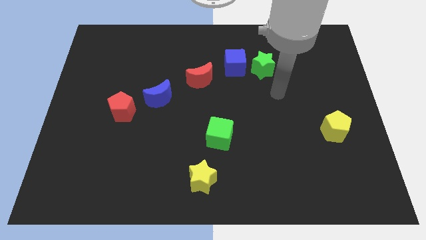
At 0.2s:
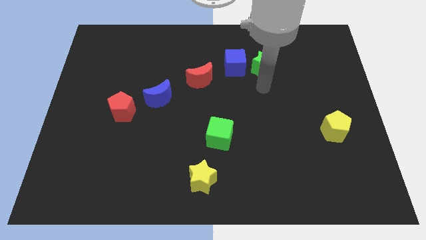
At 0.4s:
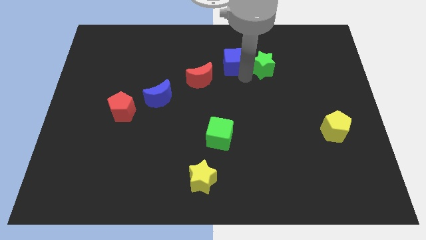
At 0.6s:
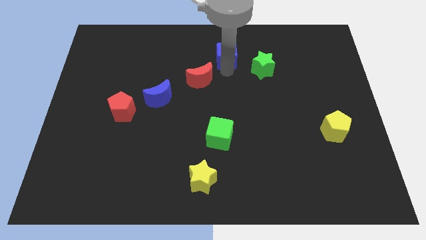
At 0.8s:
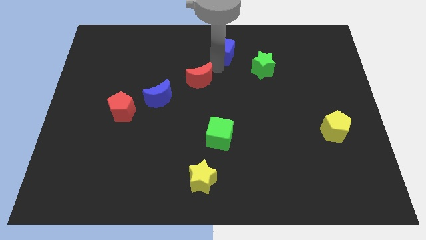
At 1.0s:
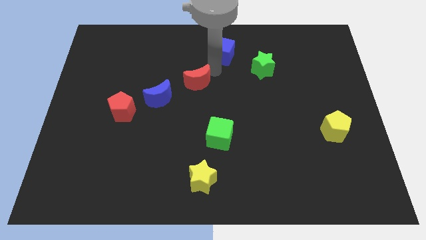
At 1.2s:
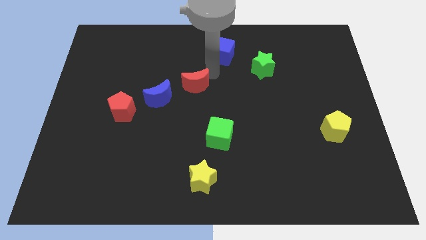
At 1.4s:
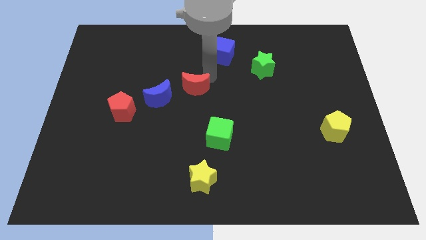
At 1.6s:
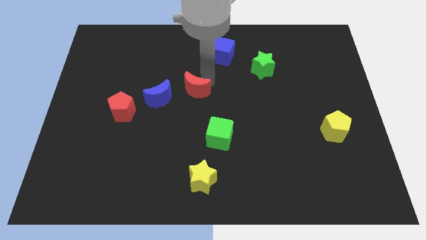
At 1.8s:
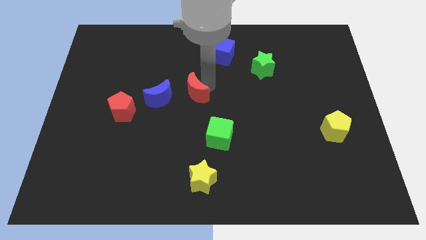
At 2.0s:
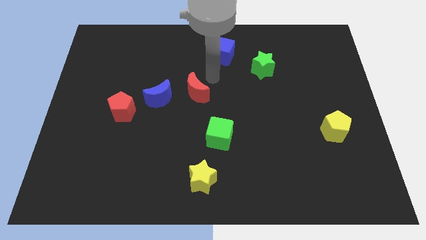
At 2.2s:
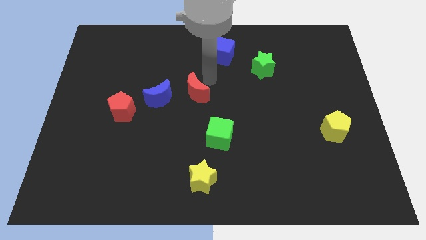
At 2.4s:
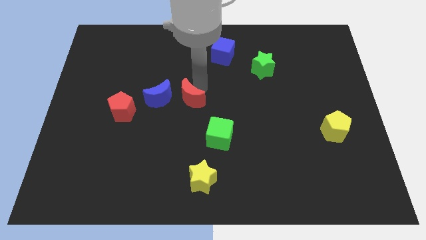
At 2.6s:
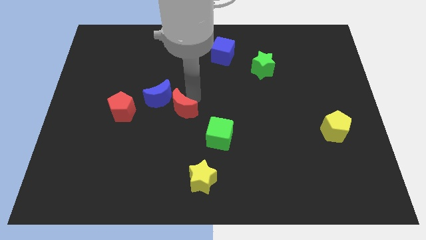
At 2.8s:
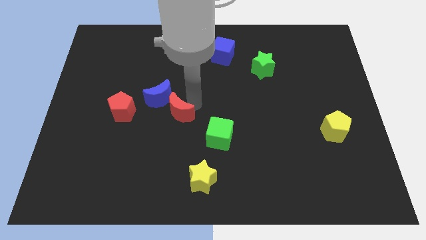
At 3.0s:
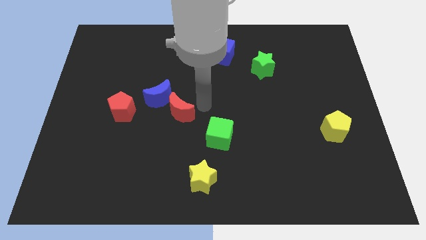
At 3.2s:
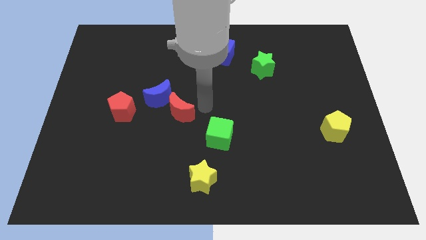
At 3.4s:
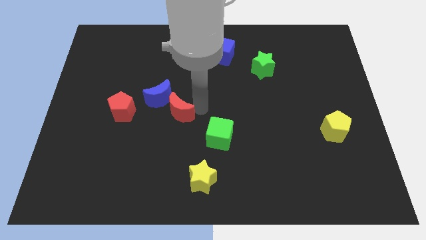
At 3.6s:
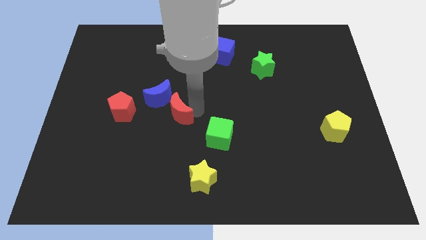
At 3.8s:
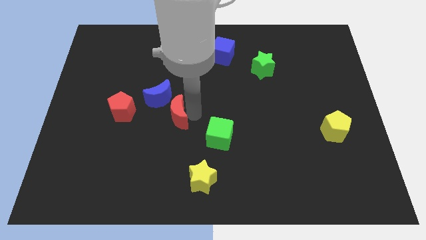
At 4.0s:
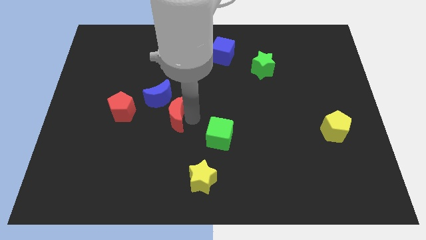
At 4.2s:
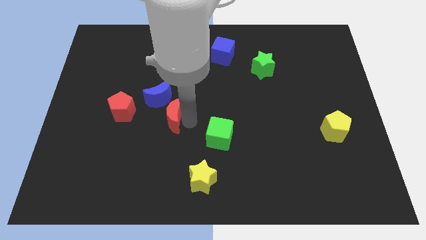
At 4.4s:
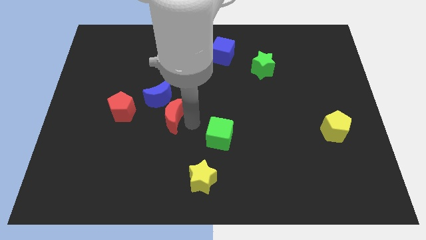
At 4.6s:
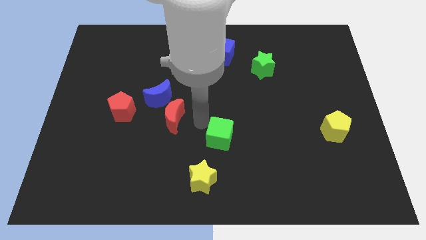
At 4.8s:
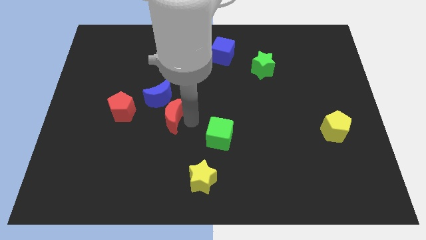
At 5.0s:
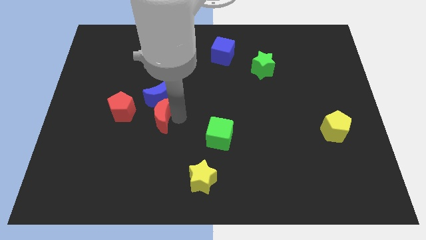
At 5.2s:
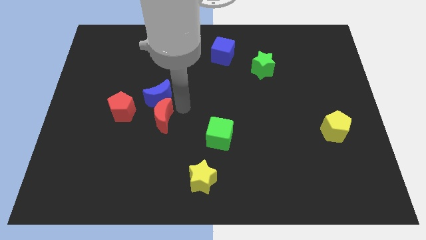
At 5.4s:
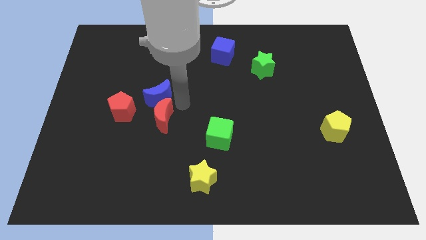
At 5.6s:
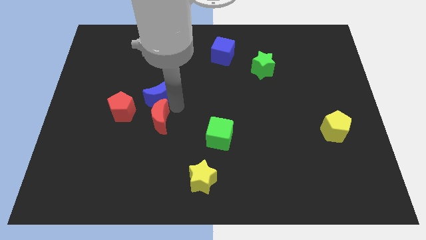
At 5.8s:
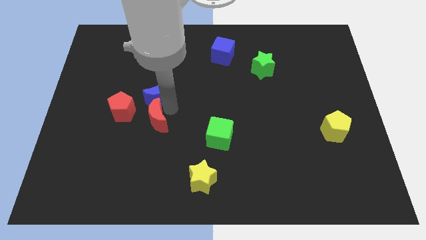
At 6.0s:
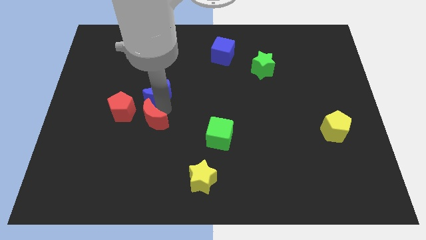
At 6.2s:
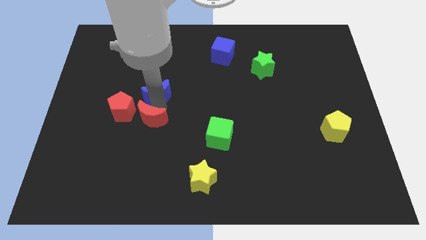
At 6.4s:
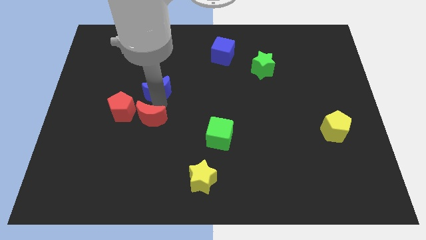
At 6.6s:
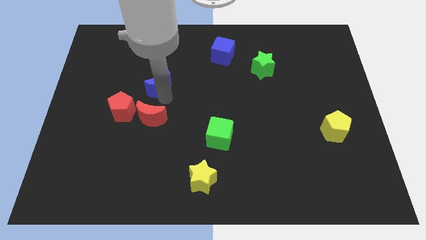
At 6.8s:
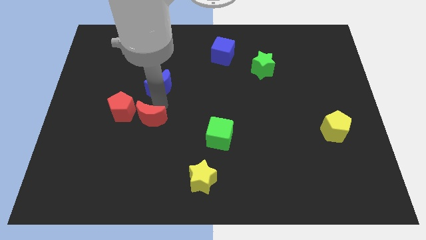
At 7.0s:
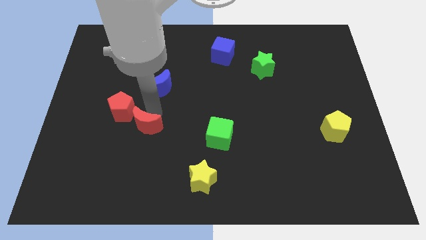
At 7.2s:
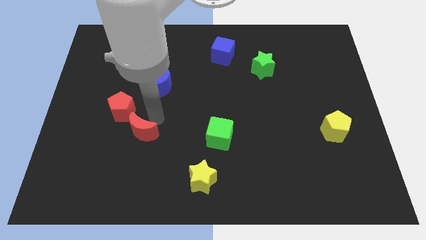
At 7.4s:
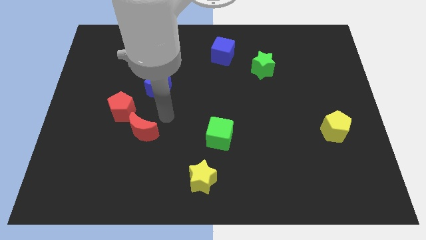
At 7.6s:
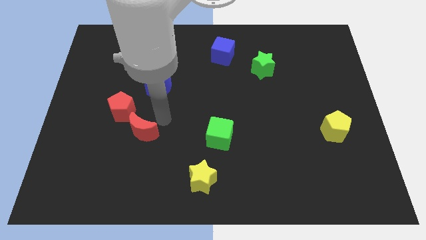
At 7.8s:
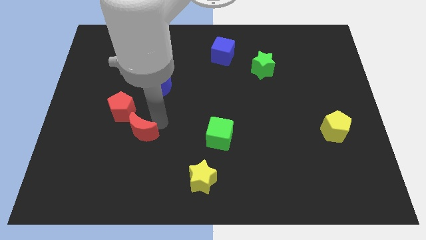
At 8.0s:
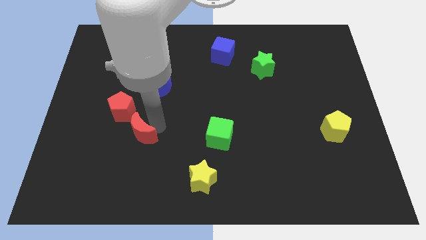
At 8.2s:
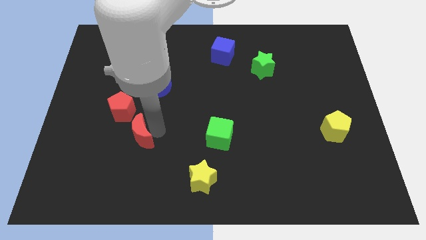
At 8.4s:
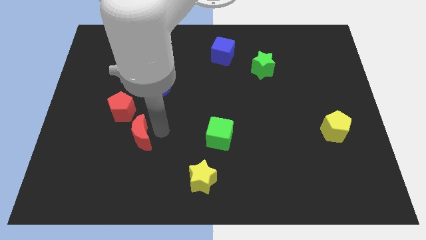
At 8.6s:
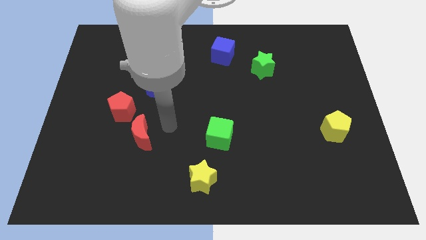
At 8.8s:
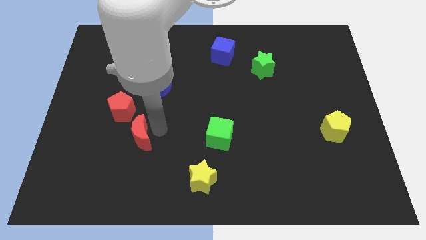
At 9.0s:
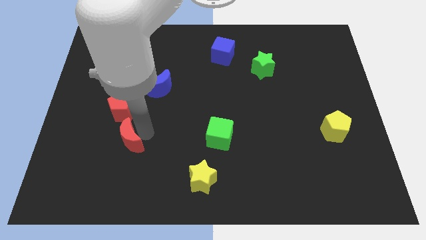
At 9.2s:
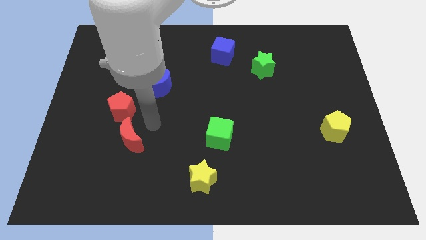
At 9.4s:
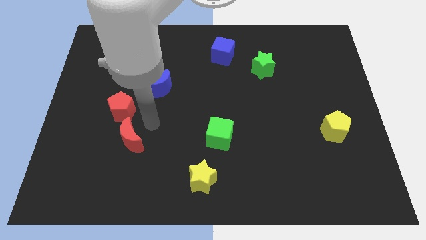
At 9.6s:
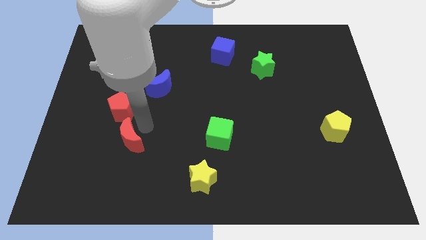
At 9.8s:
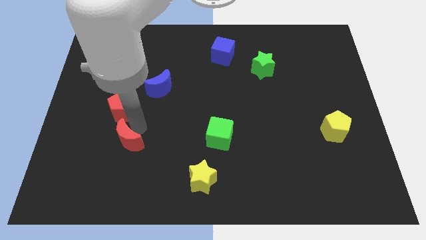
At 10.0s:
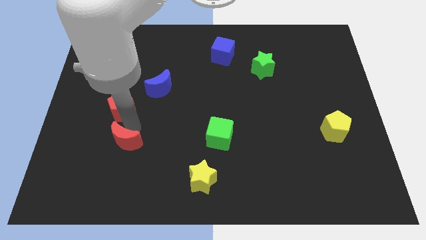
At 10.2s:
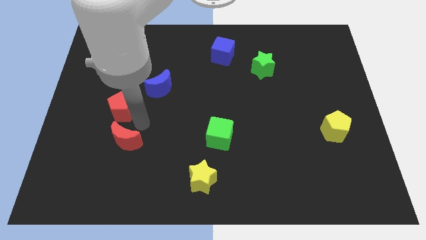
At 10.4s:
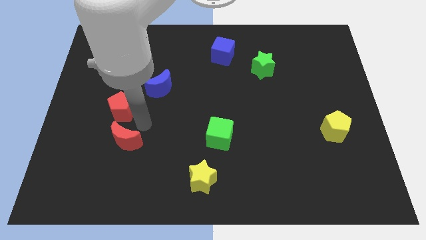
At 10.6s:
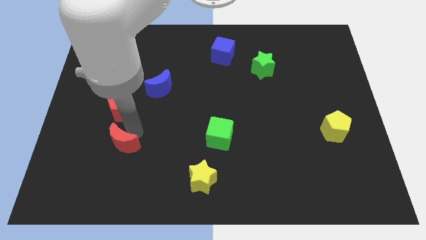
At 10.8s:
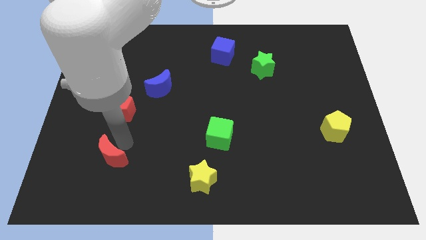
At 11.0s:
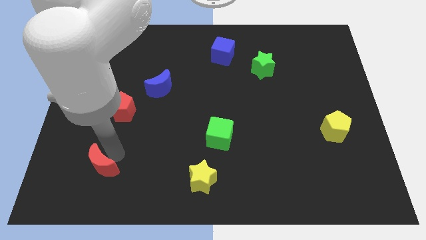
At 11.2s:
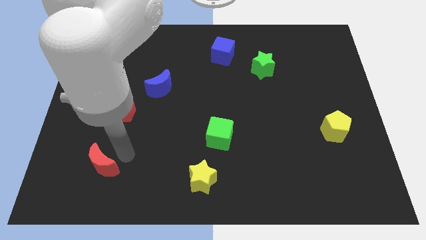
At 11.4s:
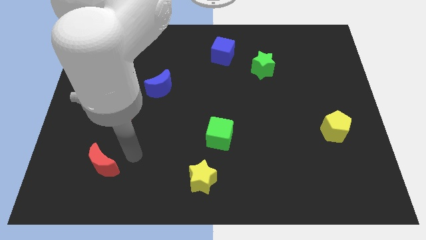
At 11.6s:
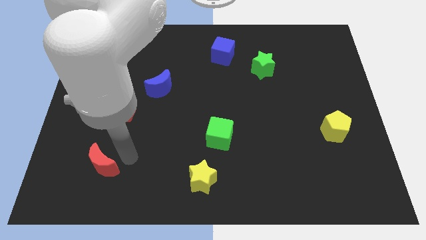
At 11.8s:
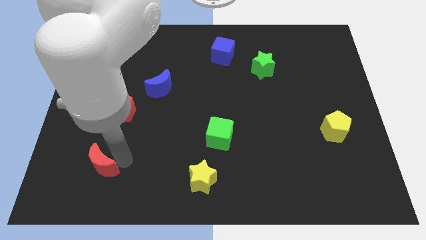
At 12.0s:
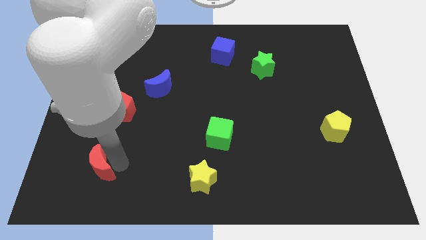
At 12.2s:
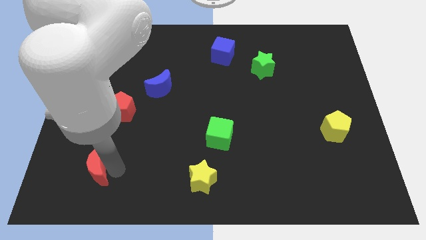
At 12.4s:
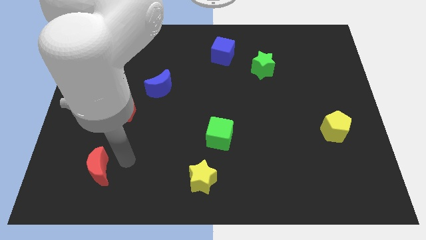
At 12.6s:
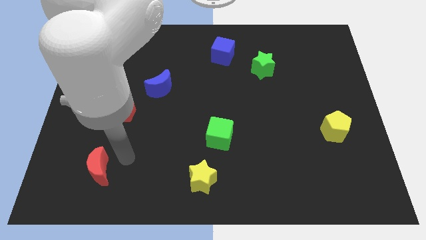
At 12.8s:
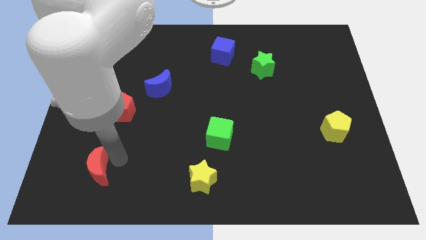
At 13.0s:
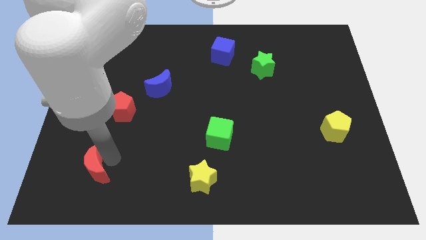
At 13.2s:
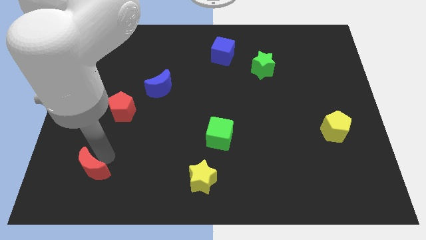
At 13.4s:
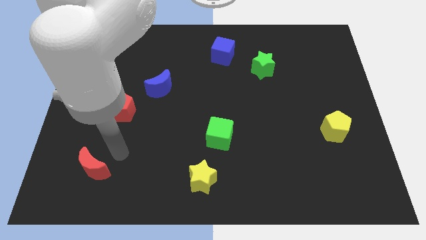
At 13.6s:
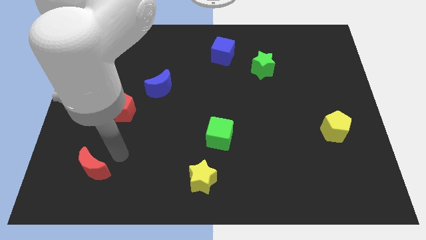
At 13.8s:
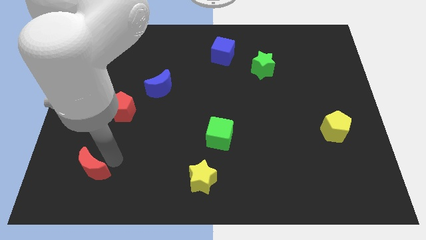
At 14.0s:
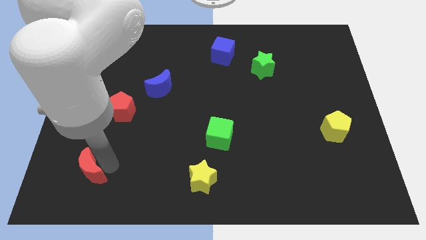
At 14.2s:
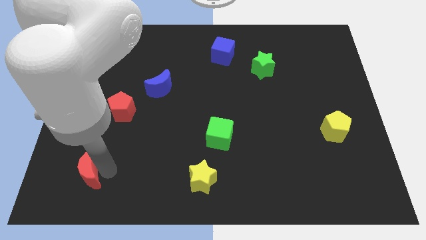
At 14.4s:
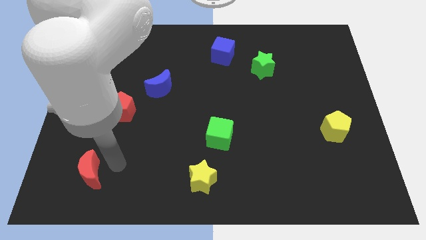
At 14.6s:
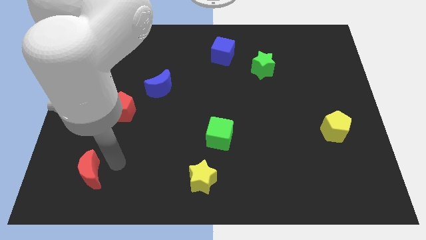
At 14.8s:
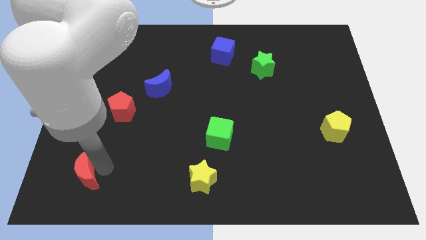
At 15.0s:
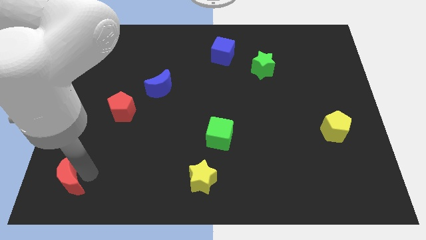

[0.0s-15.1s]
move the red moon to the bottom left corner
